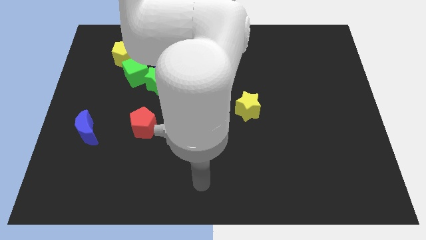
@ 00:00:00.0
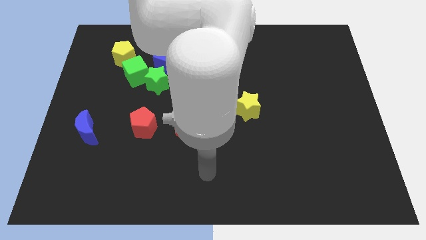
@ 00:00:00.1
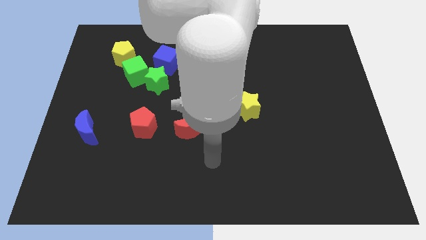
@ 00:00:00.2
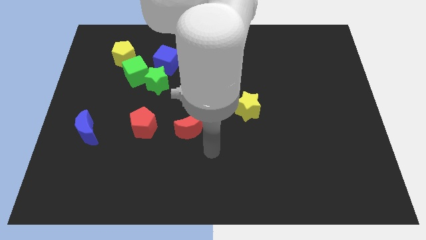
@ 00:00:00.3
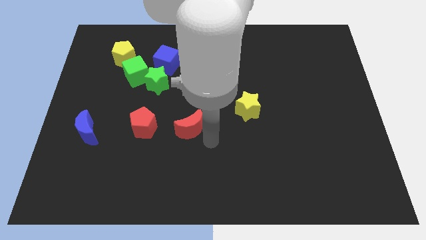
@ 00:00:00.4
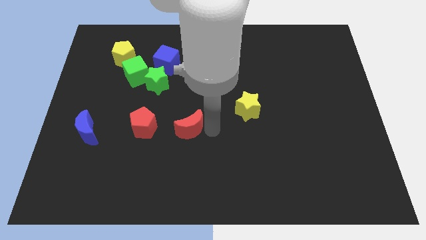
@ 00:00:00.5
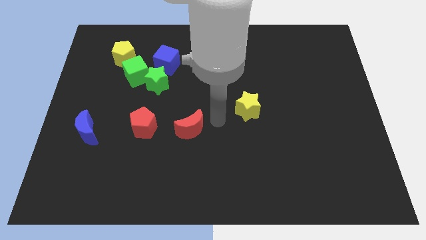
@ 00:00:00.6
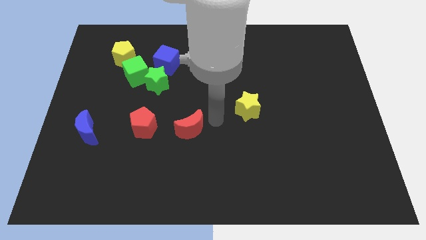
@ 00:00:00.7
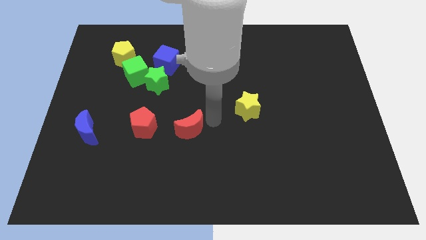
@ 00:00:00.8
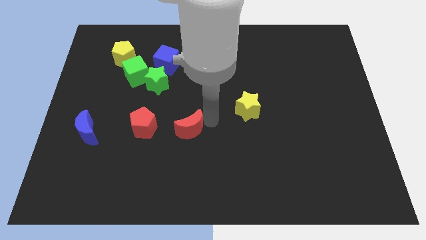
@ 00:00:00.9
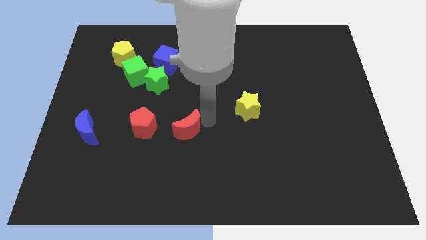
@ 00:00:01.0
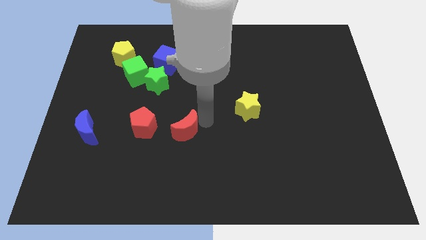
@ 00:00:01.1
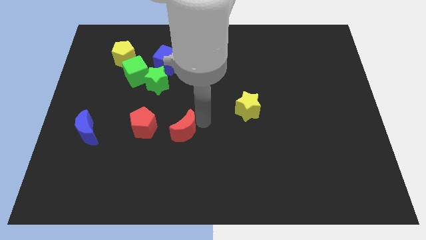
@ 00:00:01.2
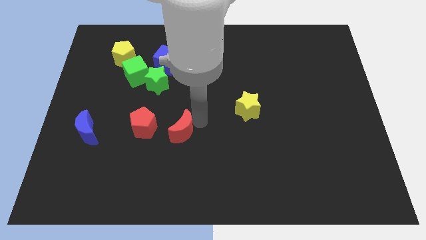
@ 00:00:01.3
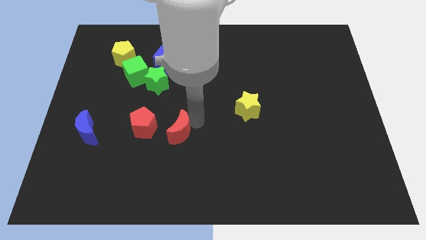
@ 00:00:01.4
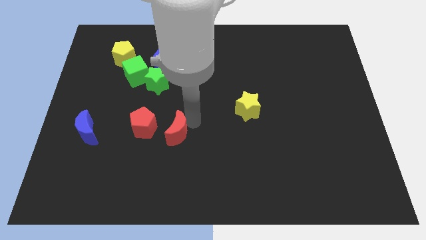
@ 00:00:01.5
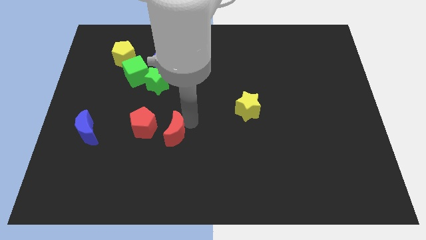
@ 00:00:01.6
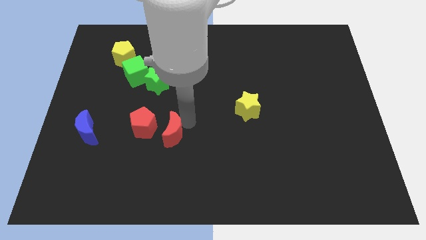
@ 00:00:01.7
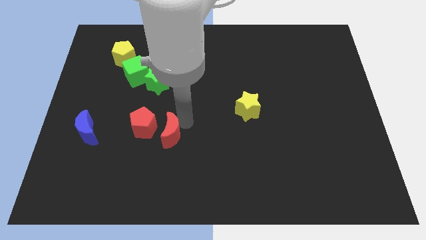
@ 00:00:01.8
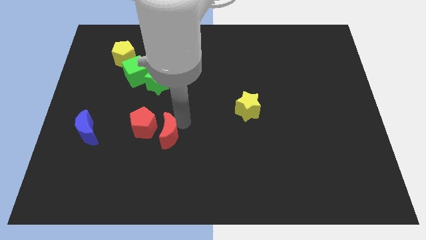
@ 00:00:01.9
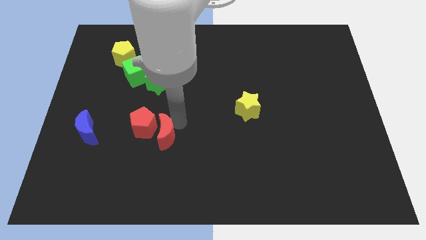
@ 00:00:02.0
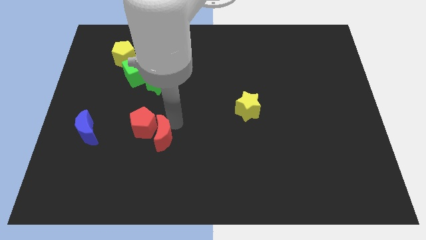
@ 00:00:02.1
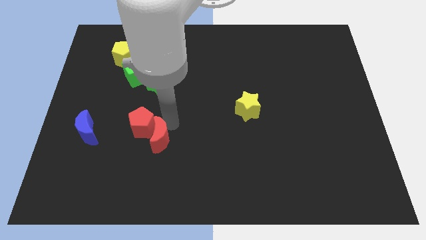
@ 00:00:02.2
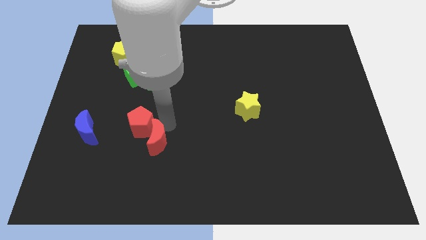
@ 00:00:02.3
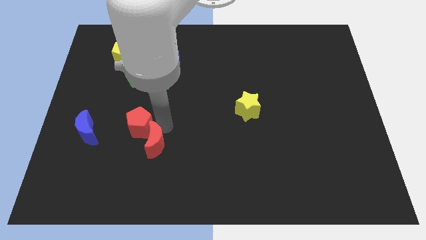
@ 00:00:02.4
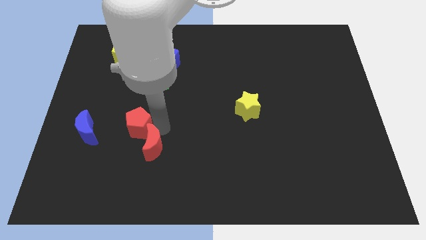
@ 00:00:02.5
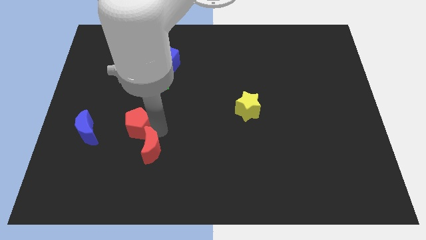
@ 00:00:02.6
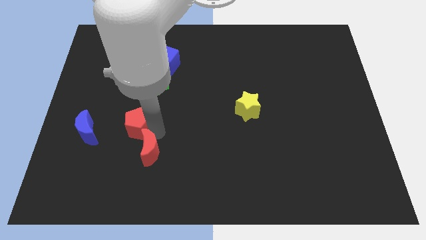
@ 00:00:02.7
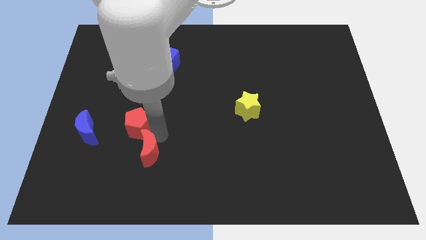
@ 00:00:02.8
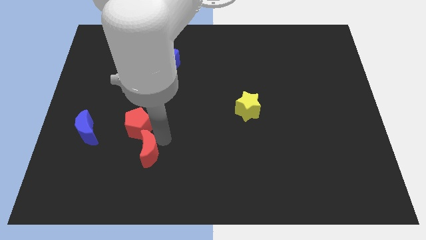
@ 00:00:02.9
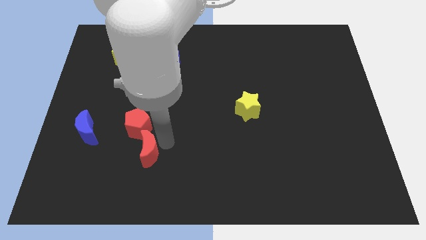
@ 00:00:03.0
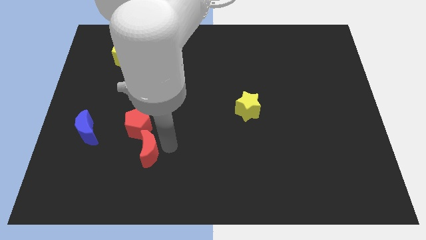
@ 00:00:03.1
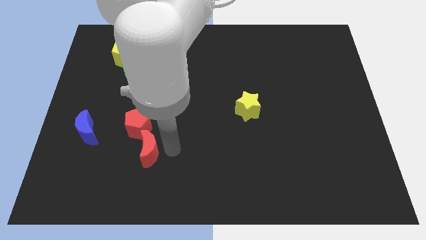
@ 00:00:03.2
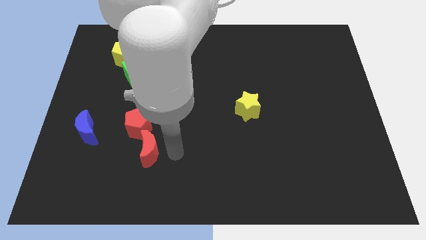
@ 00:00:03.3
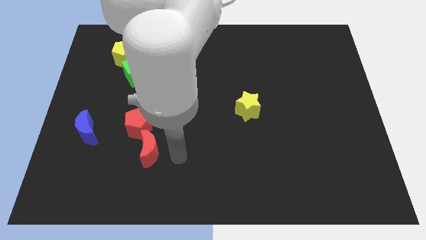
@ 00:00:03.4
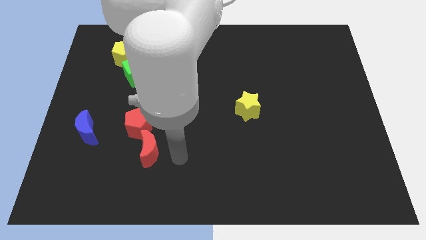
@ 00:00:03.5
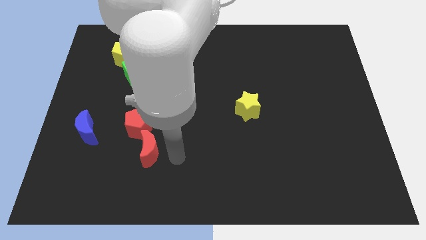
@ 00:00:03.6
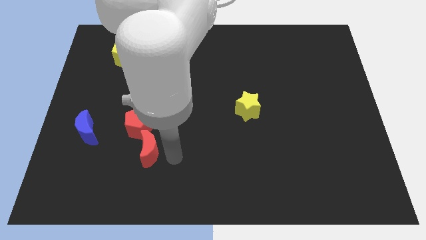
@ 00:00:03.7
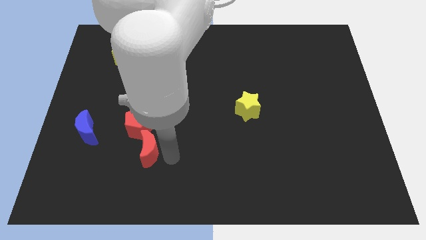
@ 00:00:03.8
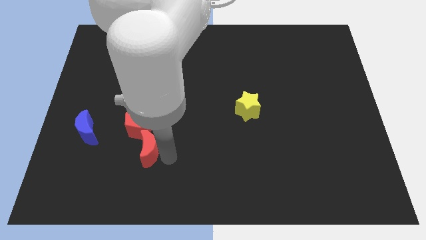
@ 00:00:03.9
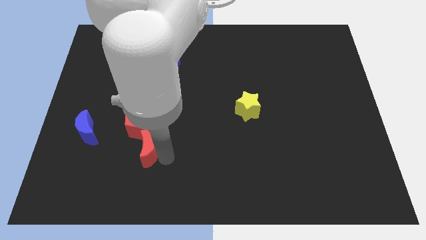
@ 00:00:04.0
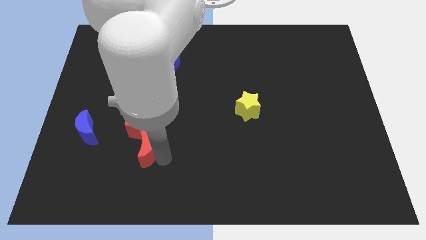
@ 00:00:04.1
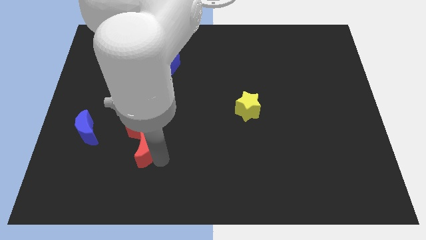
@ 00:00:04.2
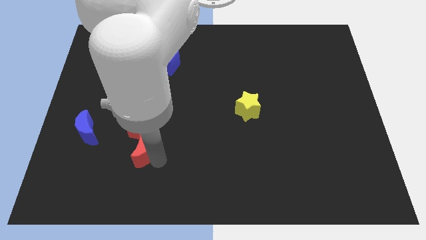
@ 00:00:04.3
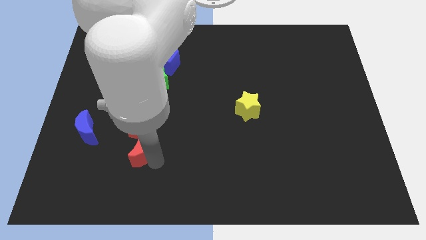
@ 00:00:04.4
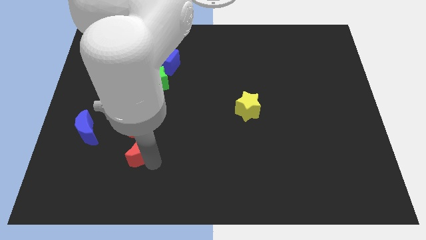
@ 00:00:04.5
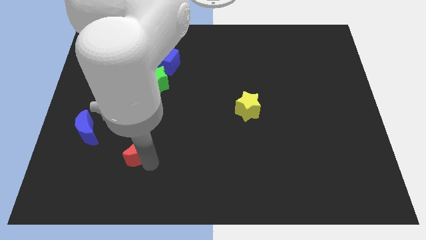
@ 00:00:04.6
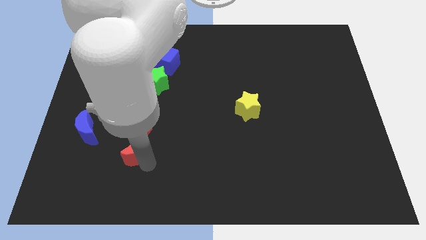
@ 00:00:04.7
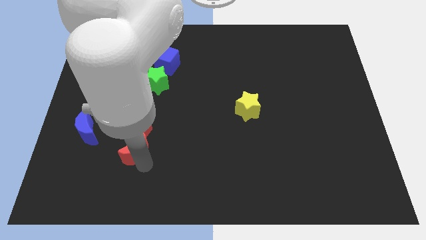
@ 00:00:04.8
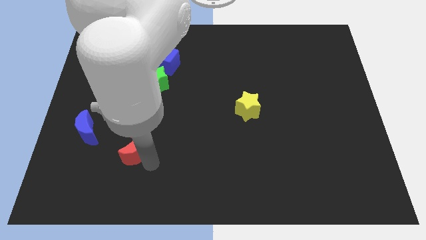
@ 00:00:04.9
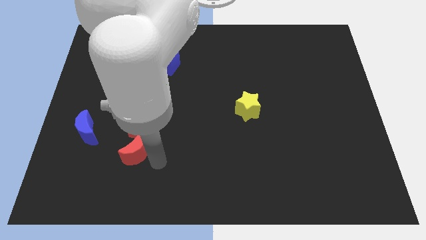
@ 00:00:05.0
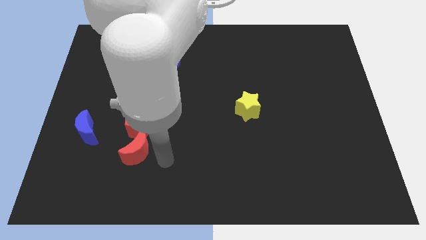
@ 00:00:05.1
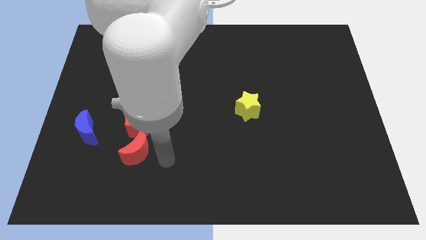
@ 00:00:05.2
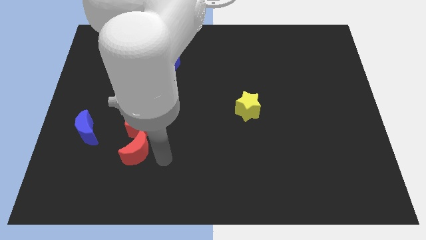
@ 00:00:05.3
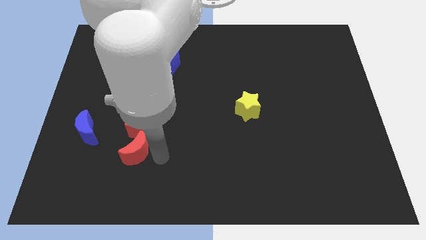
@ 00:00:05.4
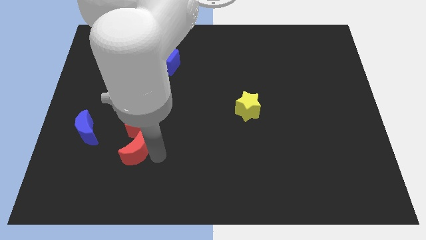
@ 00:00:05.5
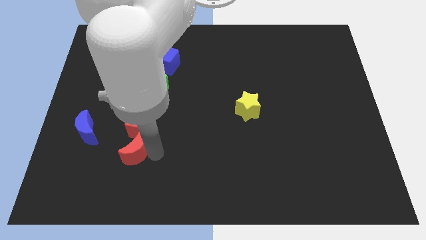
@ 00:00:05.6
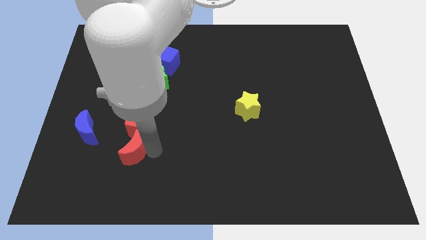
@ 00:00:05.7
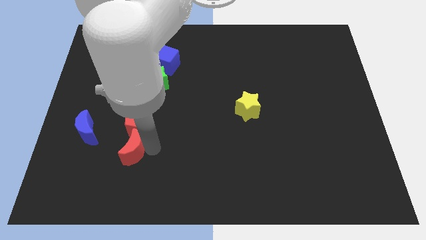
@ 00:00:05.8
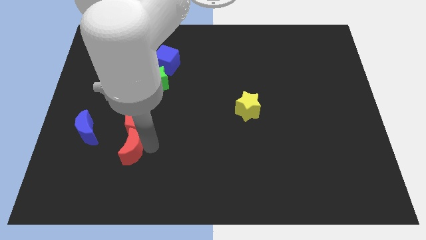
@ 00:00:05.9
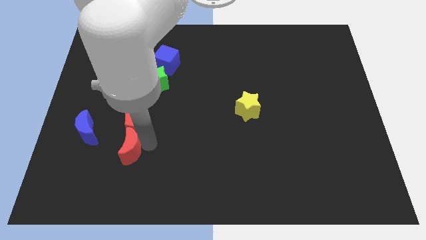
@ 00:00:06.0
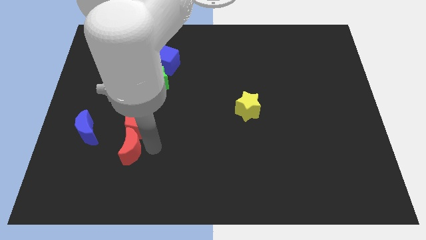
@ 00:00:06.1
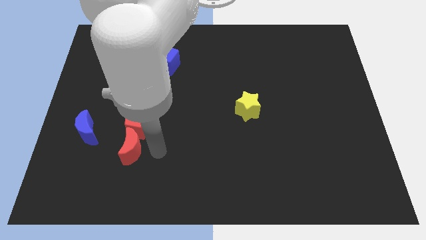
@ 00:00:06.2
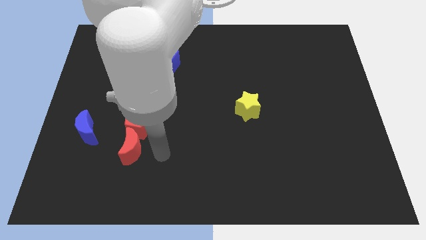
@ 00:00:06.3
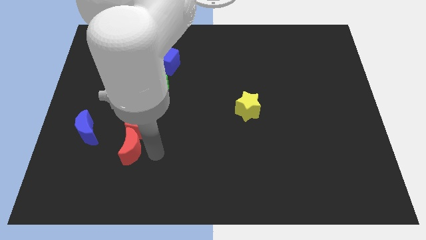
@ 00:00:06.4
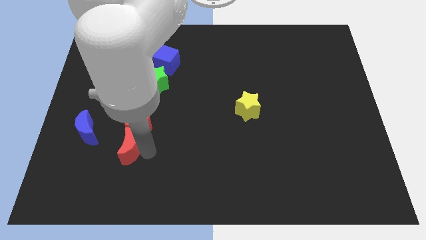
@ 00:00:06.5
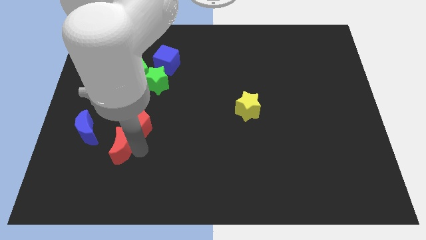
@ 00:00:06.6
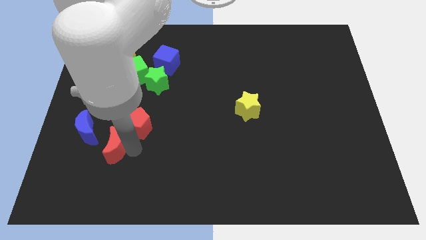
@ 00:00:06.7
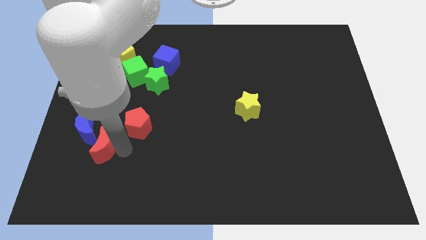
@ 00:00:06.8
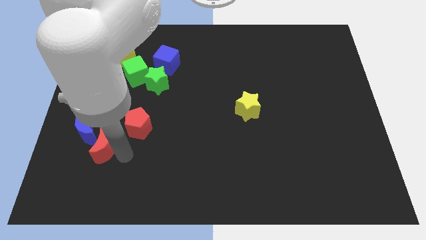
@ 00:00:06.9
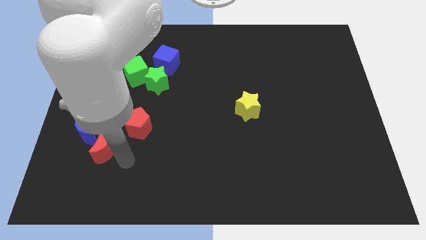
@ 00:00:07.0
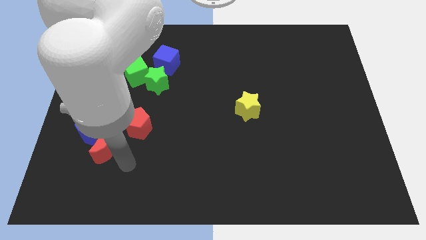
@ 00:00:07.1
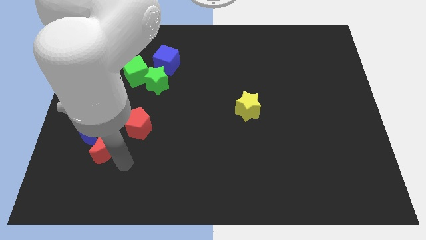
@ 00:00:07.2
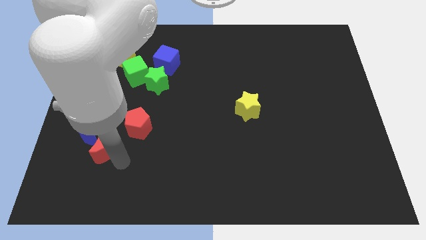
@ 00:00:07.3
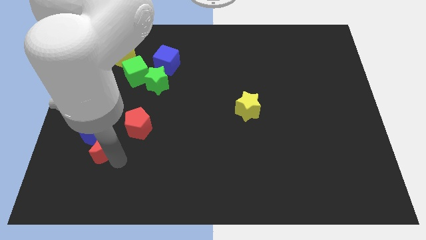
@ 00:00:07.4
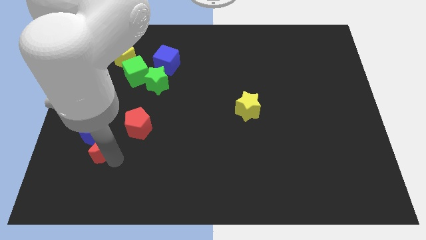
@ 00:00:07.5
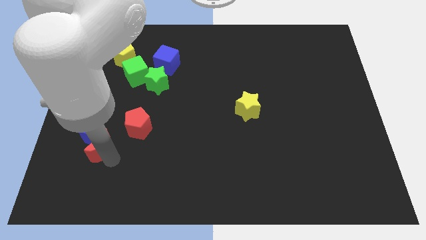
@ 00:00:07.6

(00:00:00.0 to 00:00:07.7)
push the red moon to the blue moon
